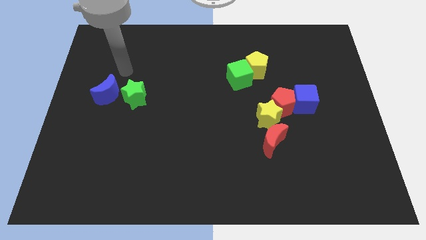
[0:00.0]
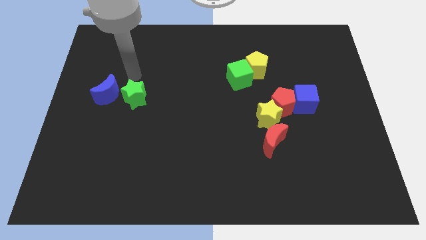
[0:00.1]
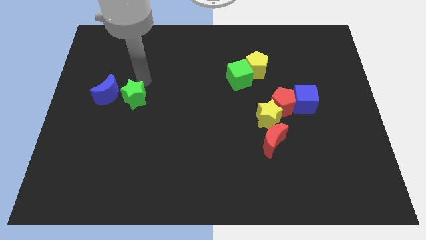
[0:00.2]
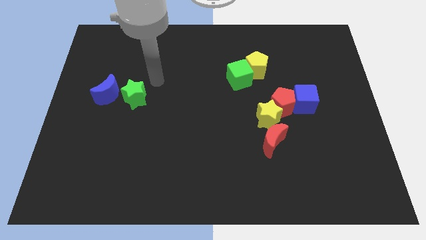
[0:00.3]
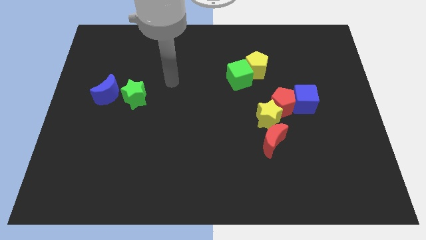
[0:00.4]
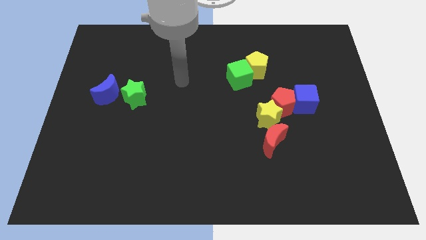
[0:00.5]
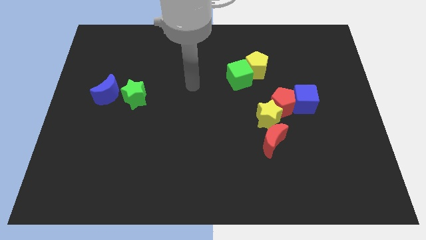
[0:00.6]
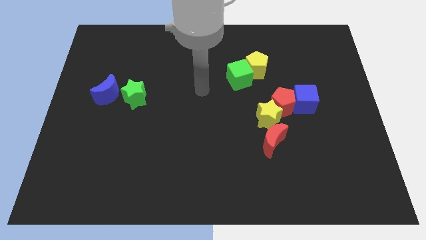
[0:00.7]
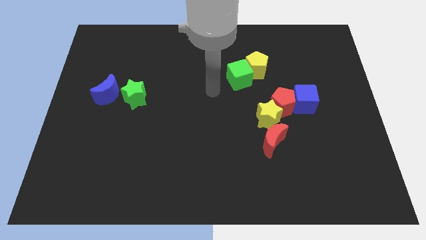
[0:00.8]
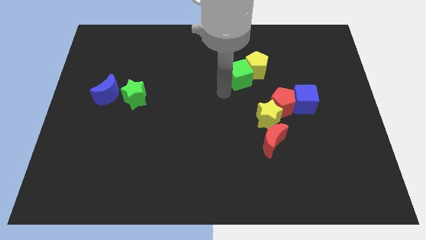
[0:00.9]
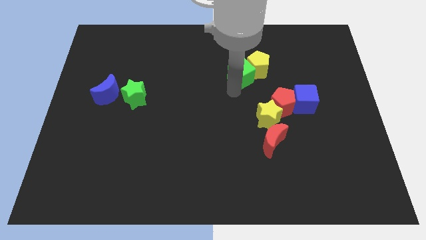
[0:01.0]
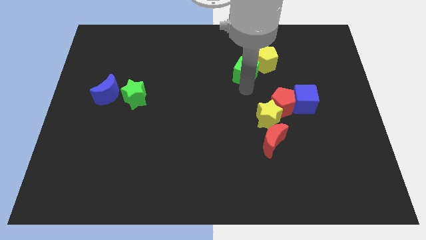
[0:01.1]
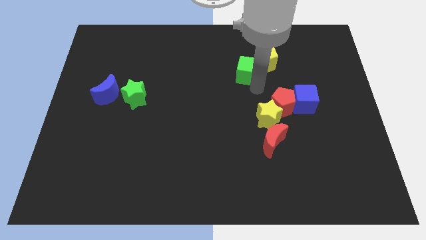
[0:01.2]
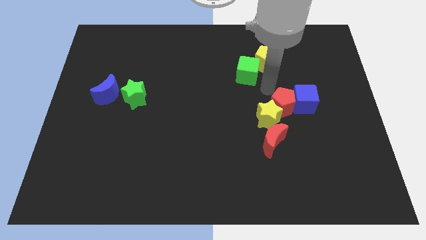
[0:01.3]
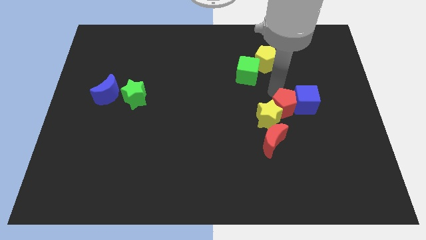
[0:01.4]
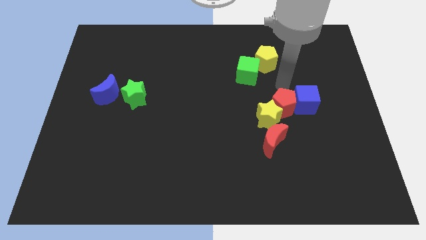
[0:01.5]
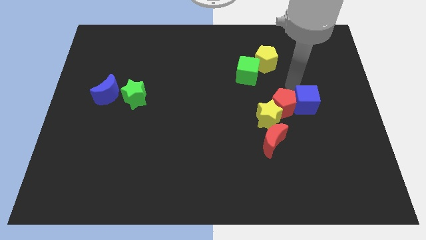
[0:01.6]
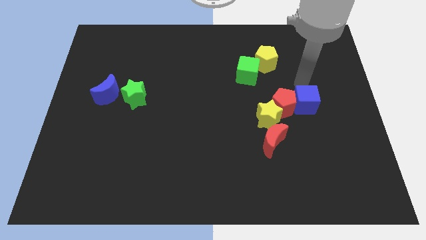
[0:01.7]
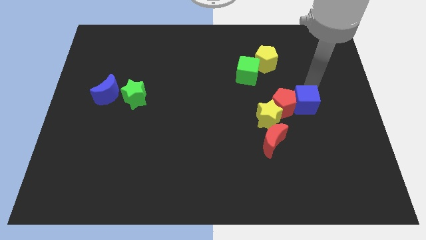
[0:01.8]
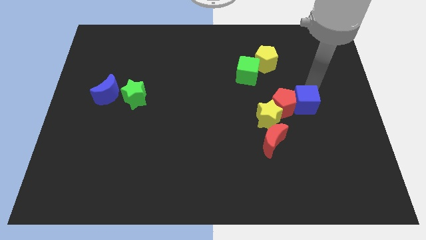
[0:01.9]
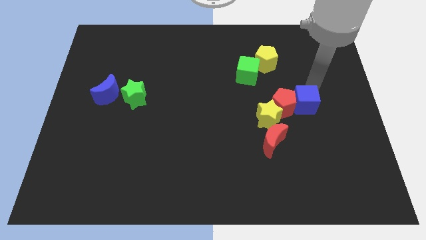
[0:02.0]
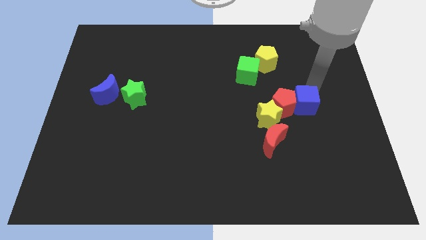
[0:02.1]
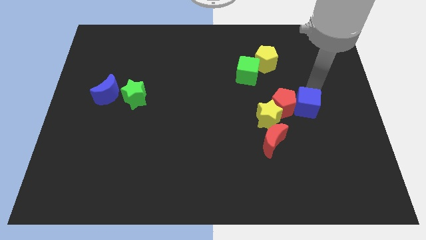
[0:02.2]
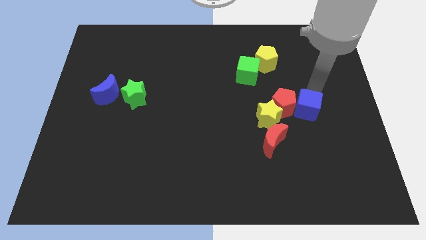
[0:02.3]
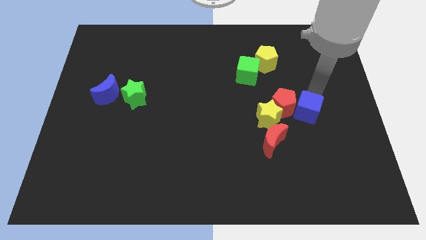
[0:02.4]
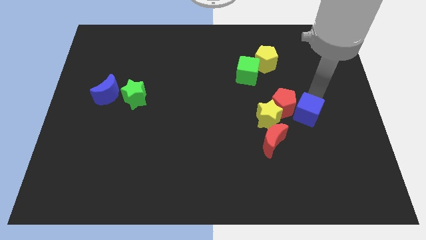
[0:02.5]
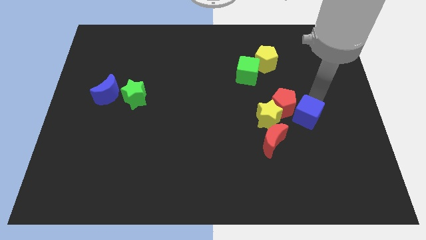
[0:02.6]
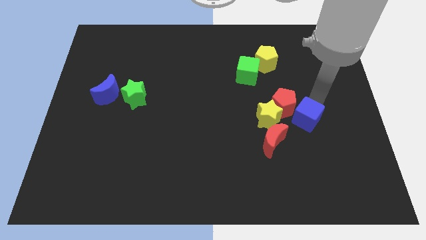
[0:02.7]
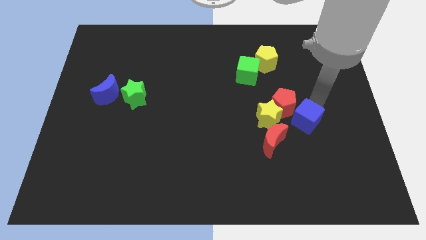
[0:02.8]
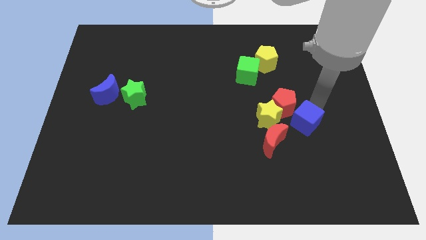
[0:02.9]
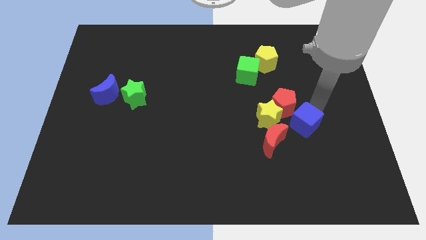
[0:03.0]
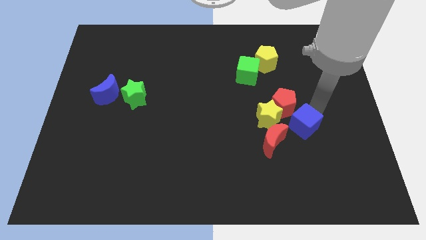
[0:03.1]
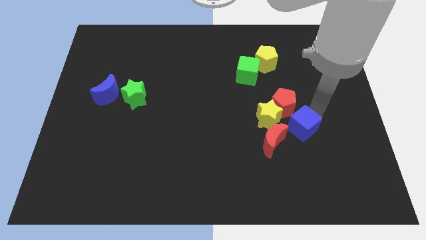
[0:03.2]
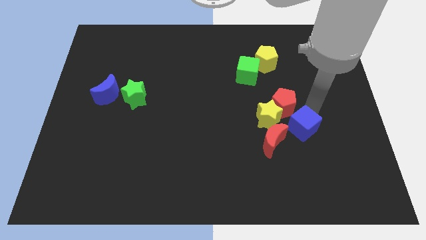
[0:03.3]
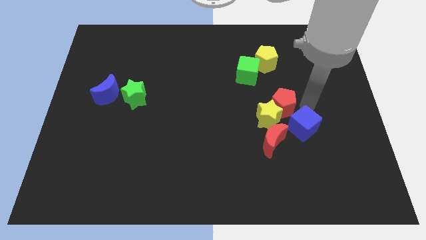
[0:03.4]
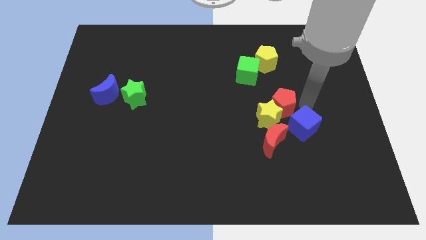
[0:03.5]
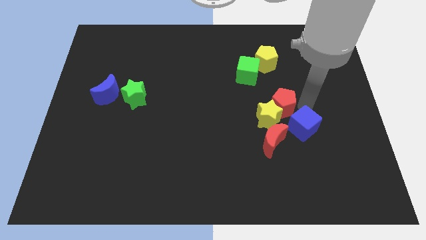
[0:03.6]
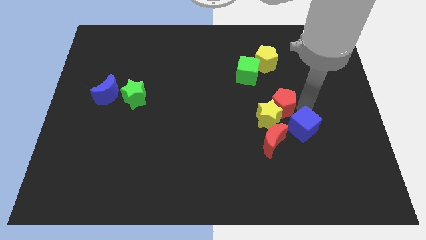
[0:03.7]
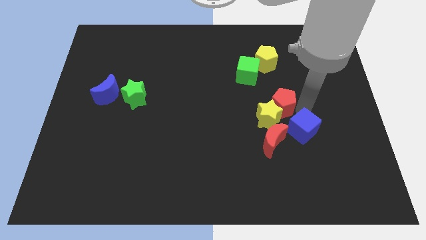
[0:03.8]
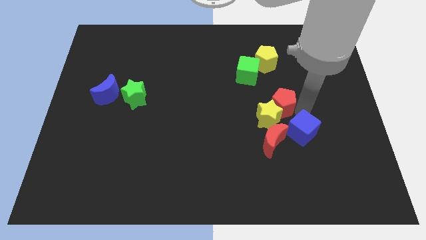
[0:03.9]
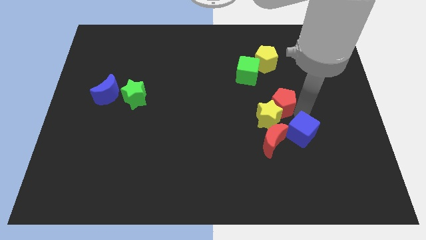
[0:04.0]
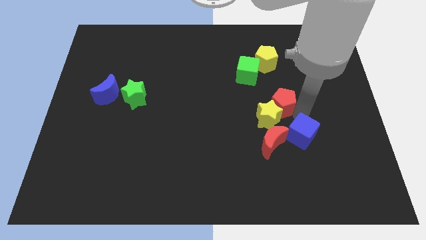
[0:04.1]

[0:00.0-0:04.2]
slightly push the blue cube downwards and left diagonally

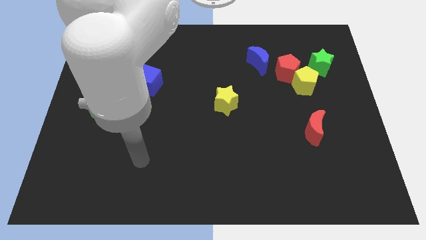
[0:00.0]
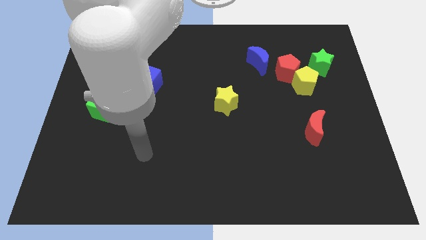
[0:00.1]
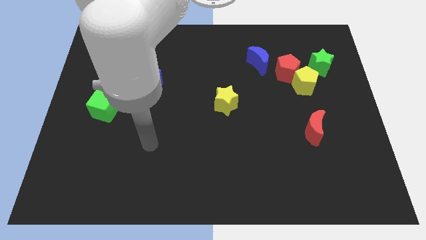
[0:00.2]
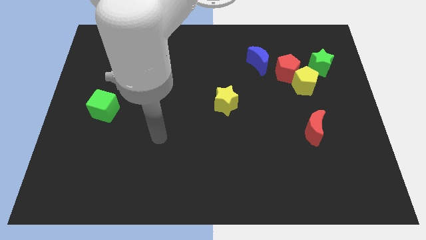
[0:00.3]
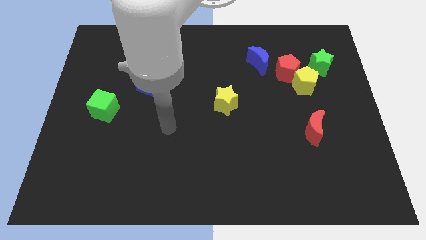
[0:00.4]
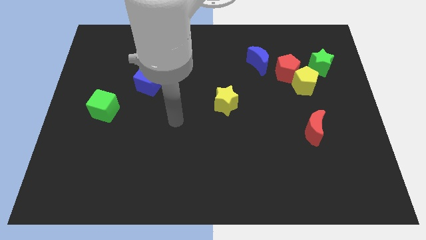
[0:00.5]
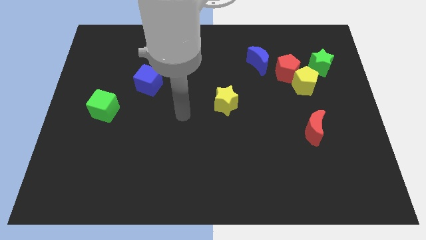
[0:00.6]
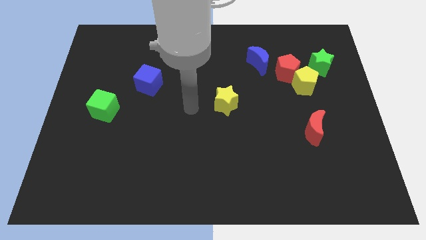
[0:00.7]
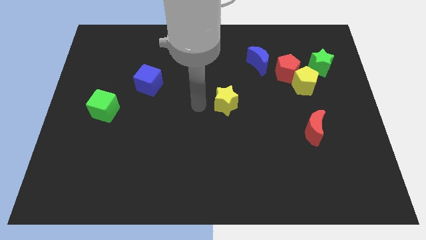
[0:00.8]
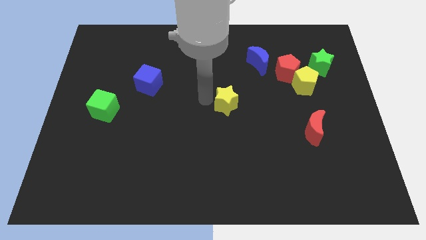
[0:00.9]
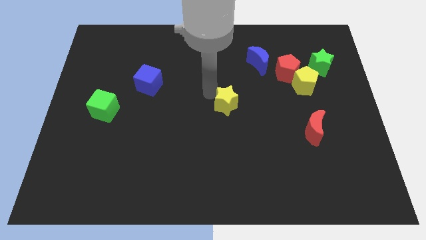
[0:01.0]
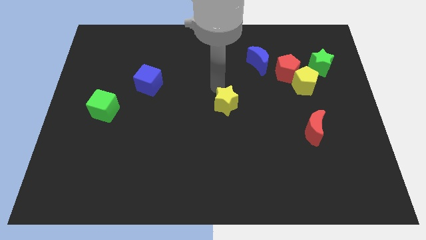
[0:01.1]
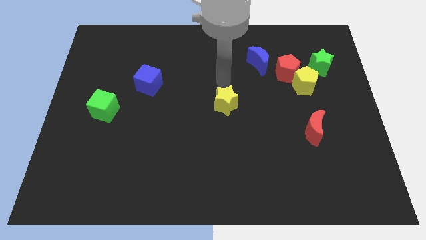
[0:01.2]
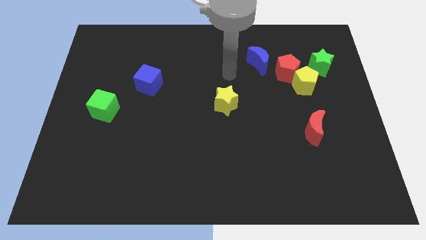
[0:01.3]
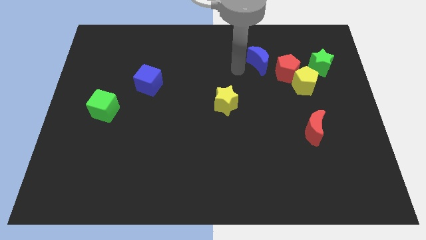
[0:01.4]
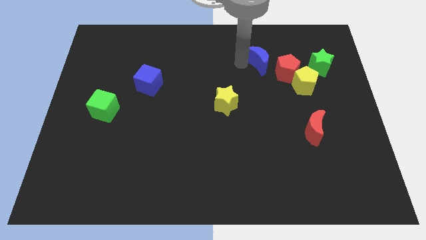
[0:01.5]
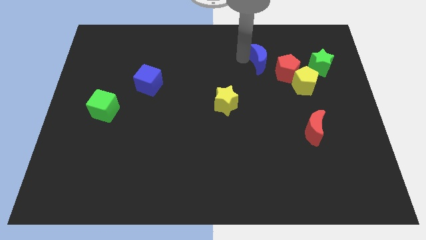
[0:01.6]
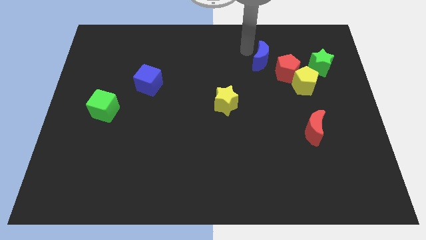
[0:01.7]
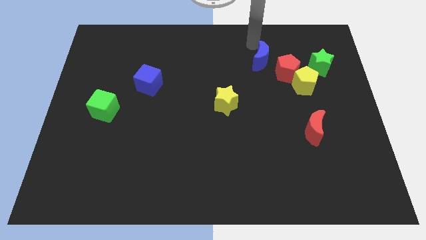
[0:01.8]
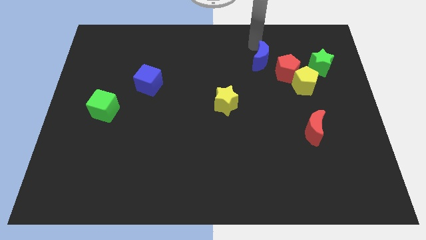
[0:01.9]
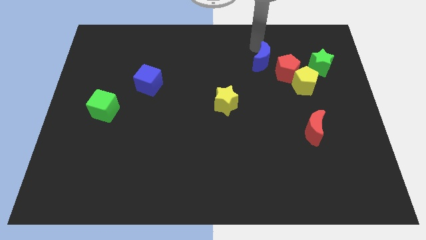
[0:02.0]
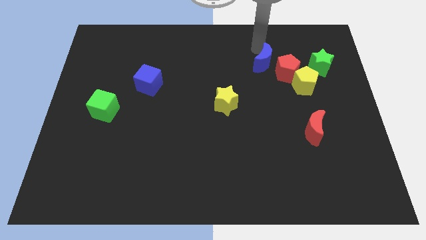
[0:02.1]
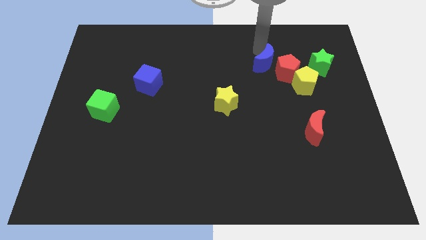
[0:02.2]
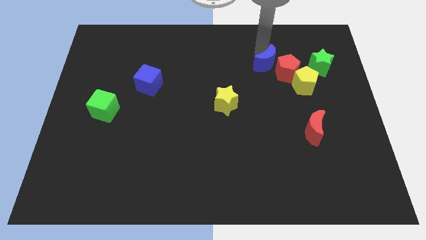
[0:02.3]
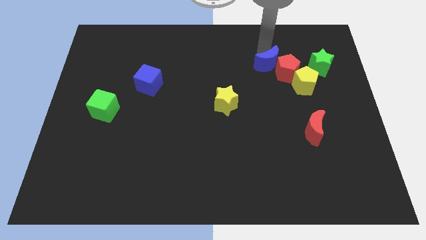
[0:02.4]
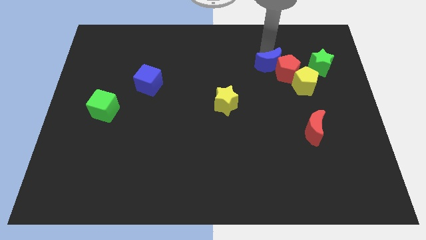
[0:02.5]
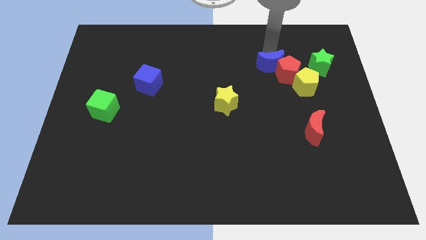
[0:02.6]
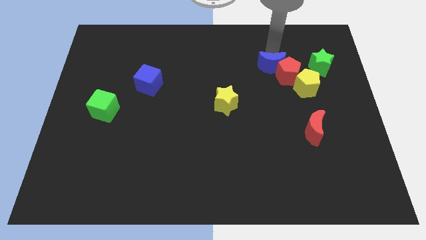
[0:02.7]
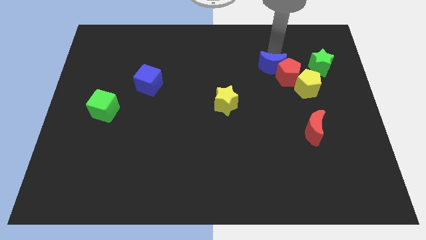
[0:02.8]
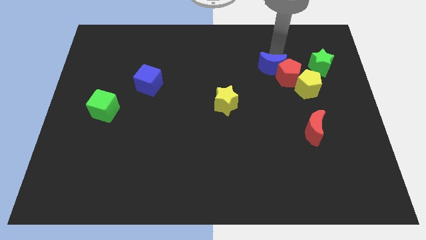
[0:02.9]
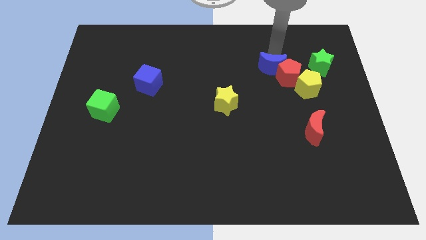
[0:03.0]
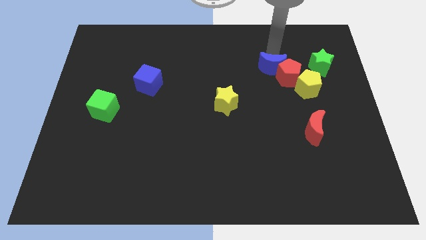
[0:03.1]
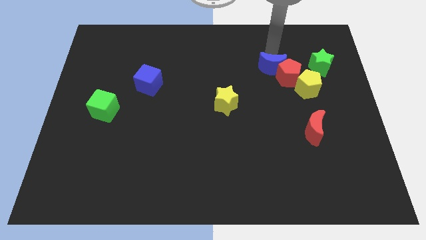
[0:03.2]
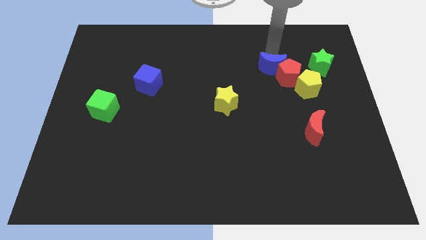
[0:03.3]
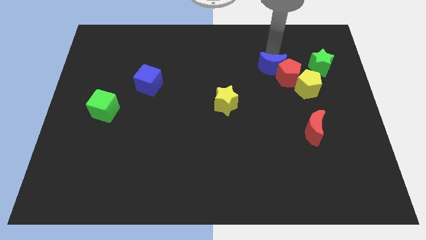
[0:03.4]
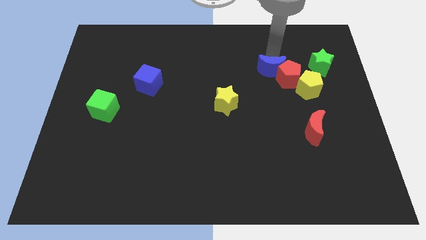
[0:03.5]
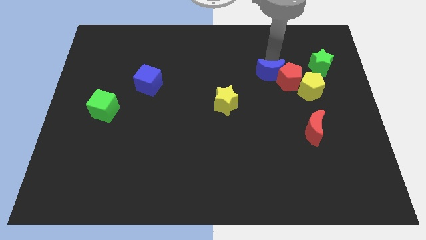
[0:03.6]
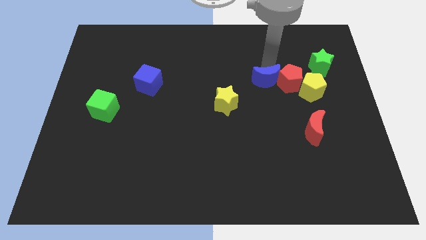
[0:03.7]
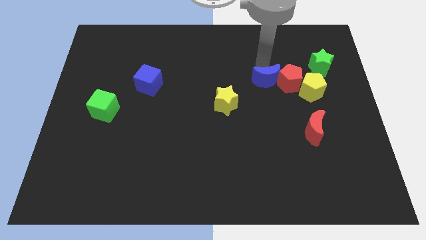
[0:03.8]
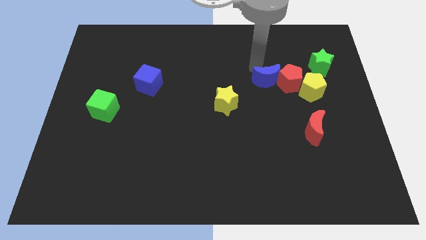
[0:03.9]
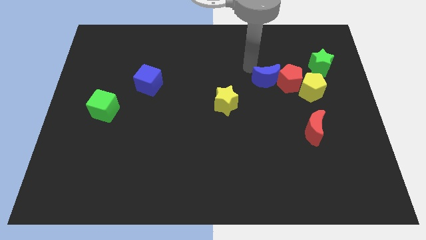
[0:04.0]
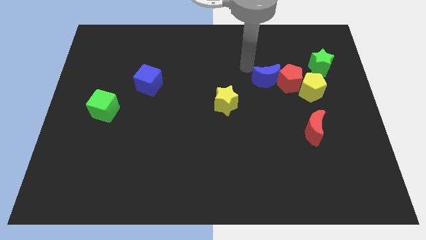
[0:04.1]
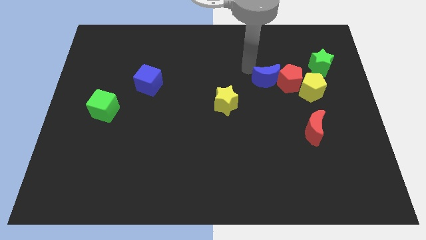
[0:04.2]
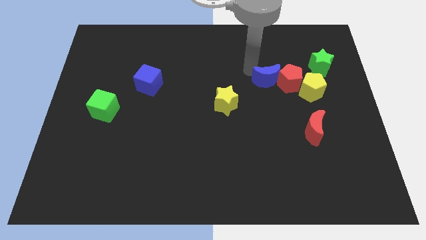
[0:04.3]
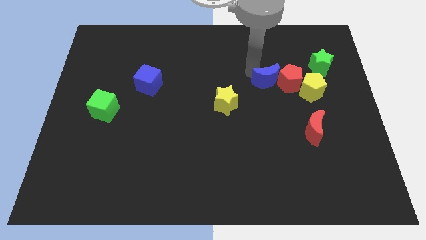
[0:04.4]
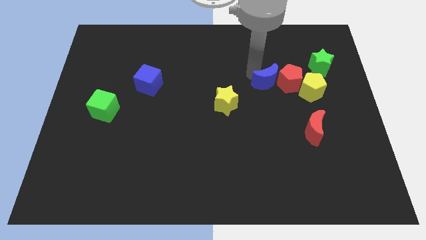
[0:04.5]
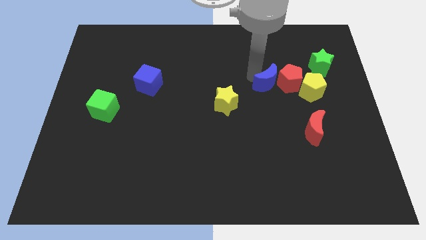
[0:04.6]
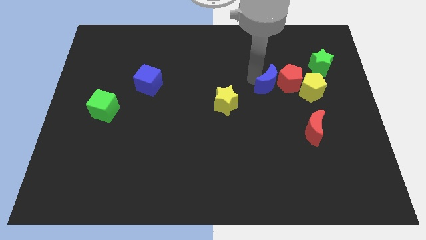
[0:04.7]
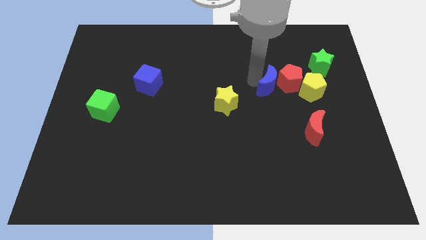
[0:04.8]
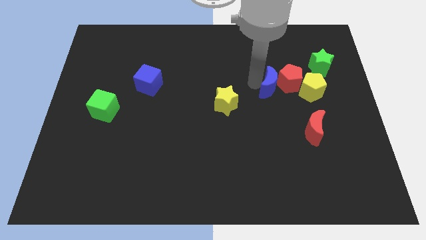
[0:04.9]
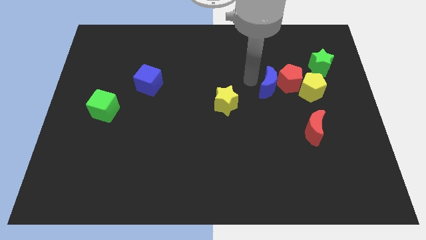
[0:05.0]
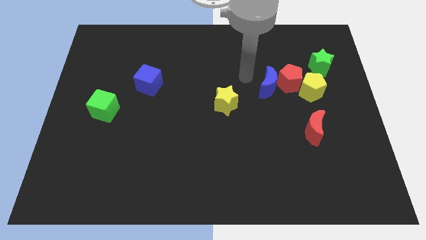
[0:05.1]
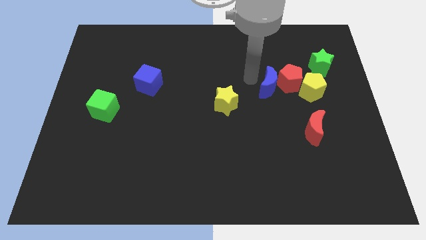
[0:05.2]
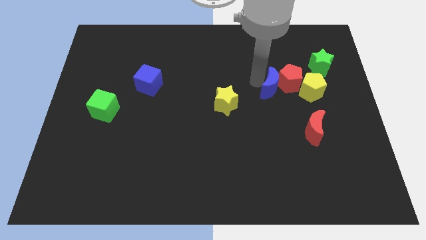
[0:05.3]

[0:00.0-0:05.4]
push the blue moon downwards and right slightly
